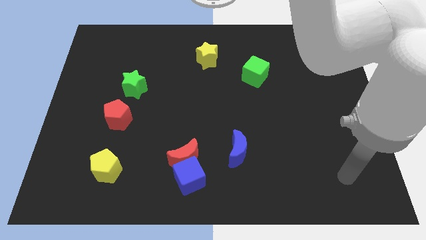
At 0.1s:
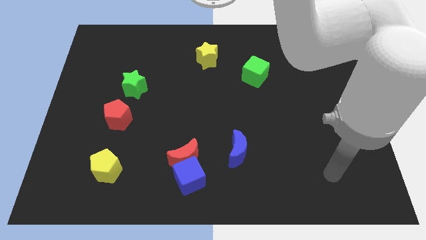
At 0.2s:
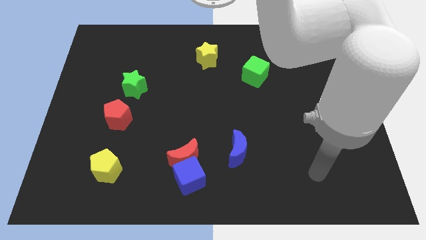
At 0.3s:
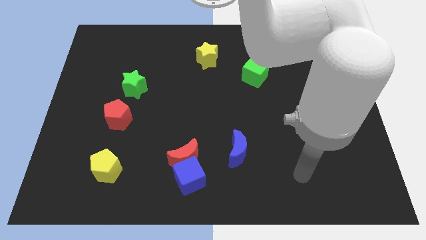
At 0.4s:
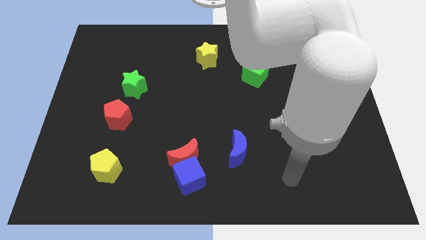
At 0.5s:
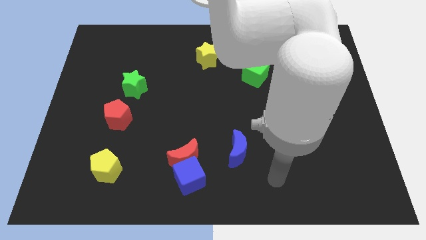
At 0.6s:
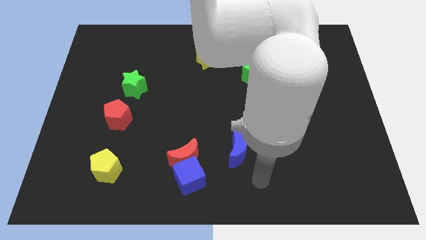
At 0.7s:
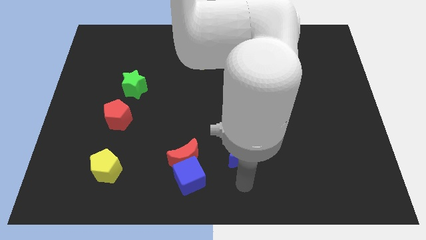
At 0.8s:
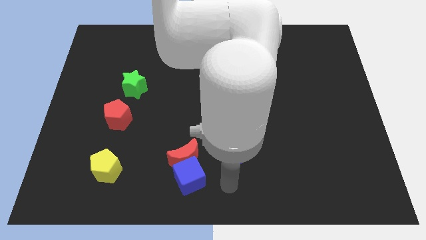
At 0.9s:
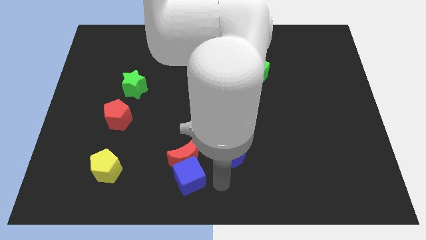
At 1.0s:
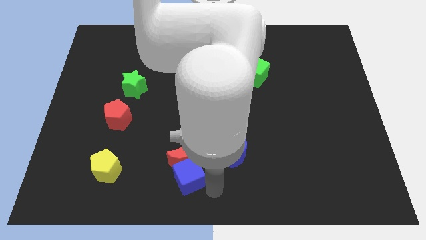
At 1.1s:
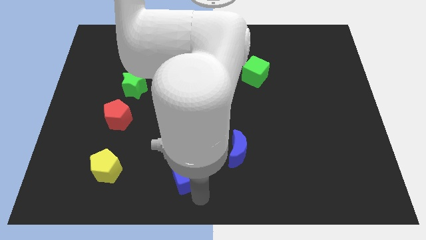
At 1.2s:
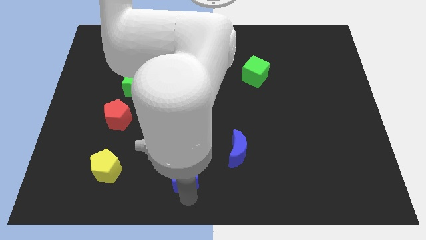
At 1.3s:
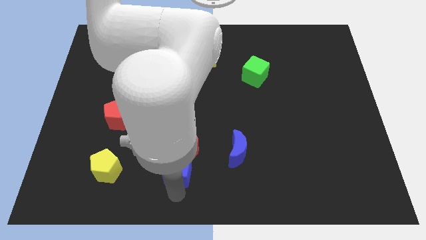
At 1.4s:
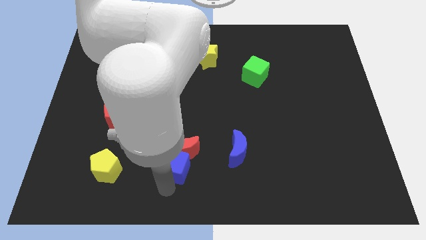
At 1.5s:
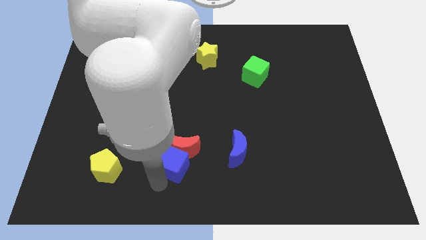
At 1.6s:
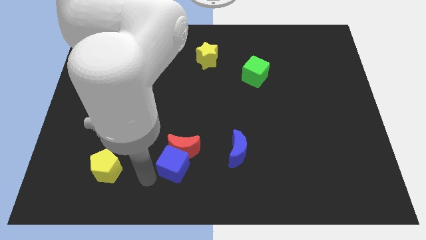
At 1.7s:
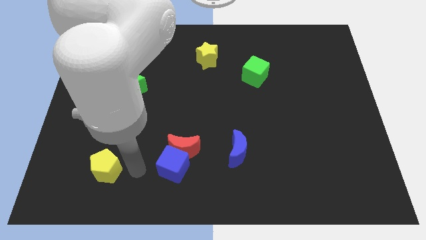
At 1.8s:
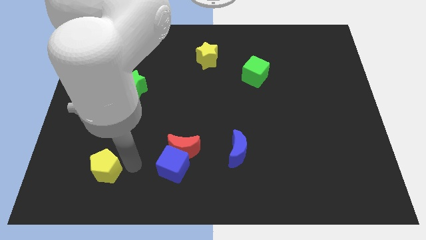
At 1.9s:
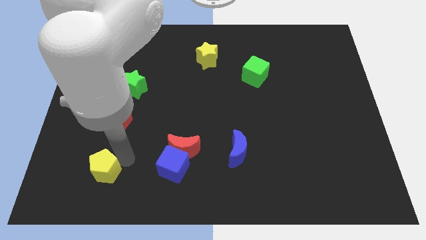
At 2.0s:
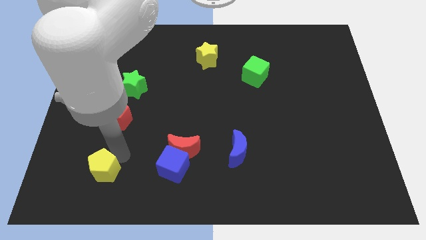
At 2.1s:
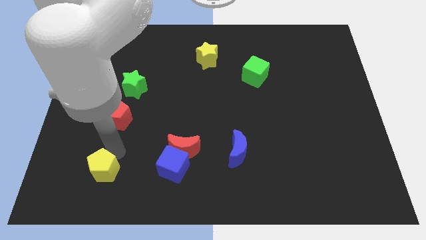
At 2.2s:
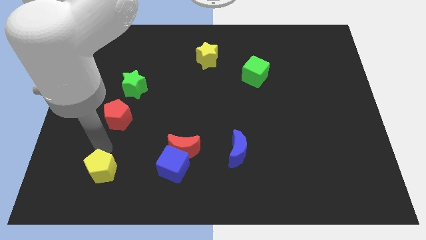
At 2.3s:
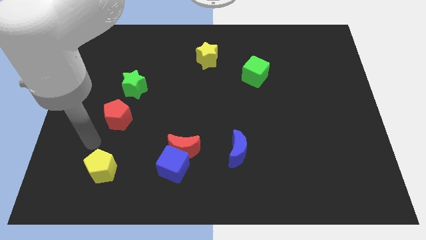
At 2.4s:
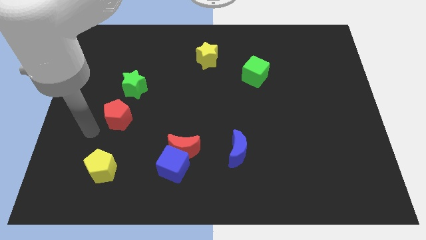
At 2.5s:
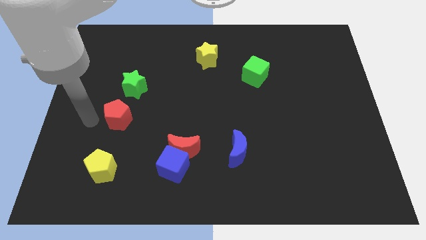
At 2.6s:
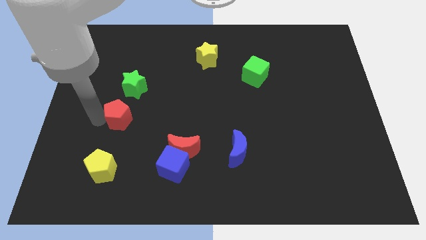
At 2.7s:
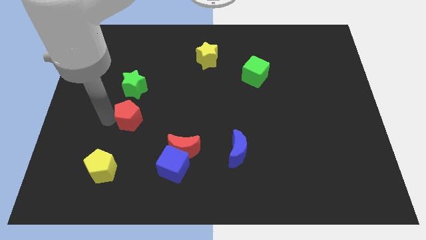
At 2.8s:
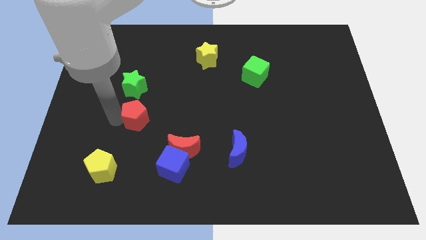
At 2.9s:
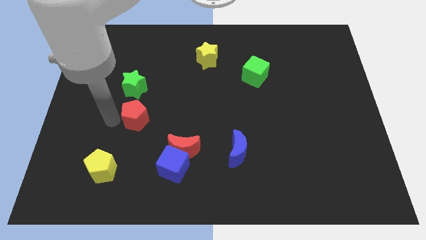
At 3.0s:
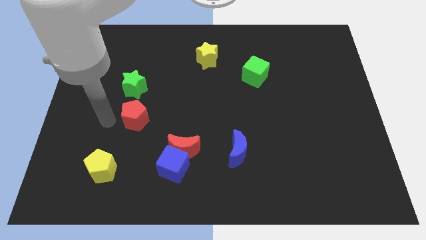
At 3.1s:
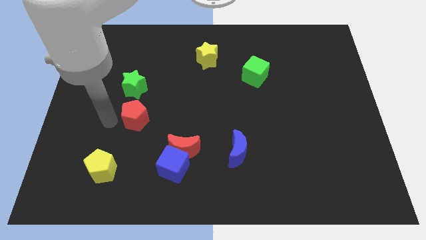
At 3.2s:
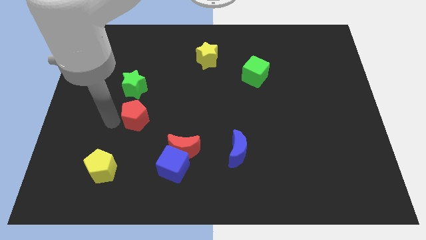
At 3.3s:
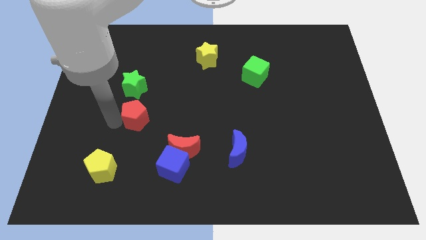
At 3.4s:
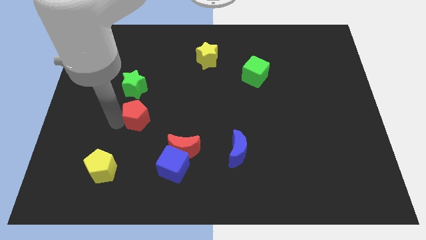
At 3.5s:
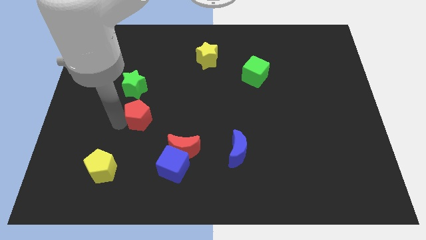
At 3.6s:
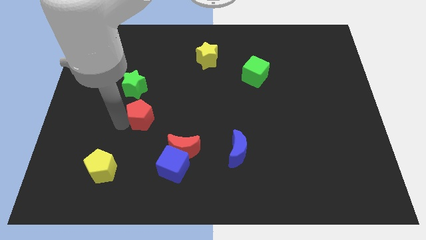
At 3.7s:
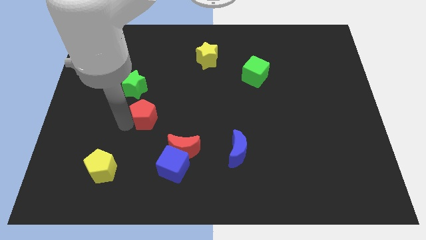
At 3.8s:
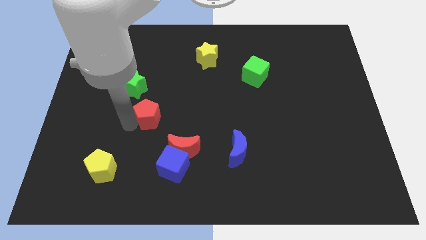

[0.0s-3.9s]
slightly move the red pentagon to the right

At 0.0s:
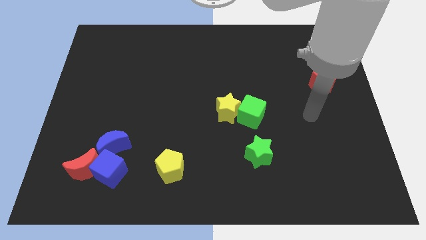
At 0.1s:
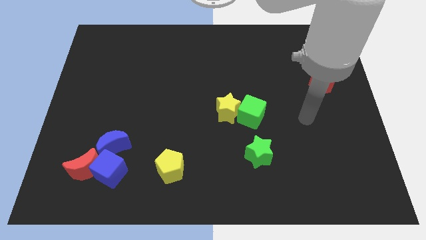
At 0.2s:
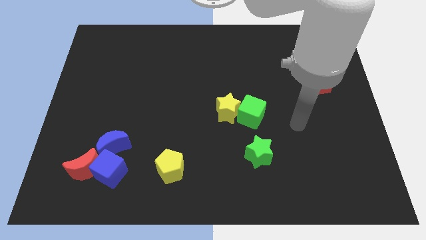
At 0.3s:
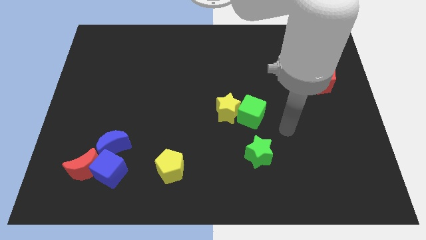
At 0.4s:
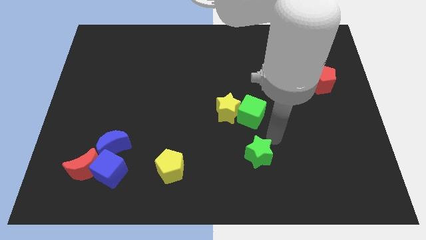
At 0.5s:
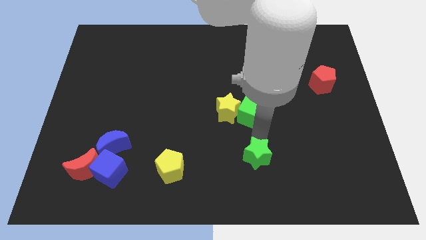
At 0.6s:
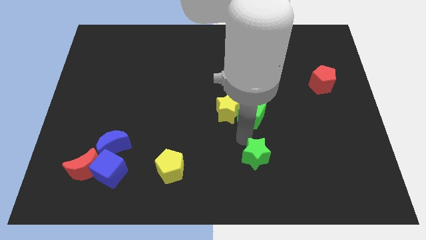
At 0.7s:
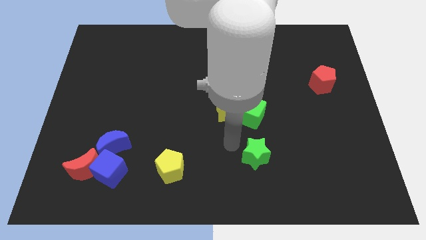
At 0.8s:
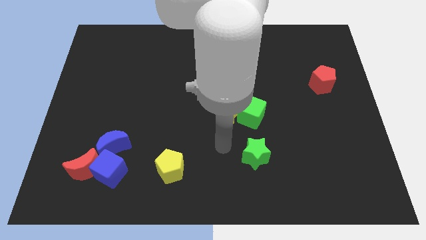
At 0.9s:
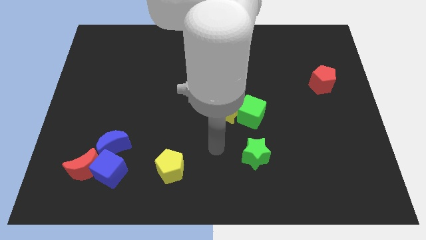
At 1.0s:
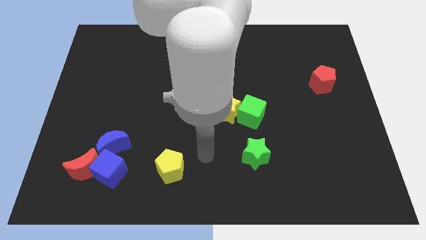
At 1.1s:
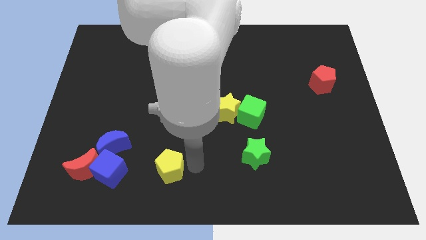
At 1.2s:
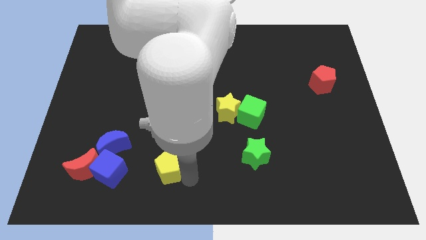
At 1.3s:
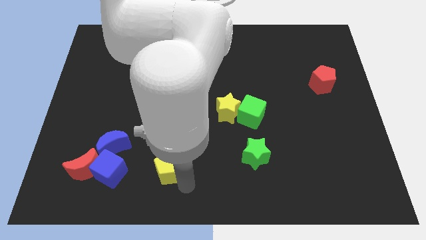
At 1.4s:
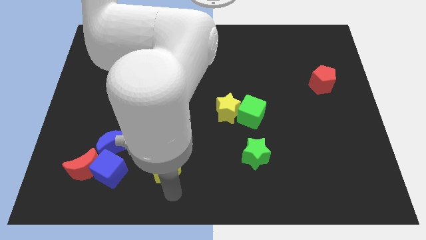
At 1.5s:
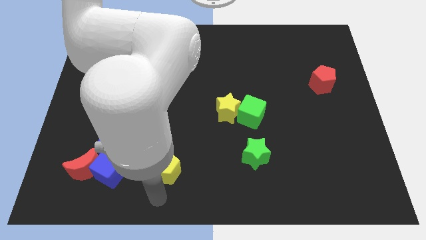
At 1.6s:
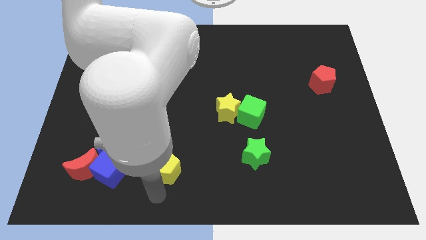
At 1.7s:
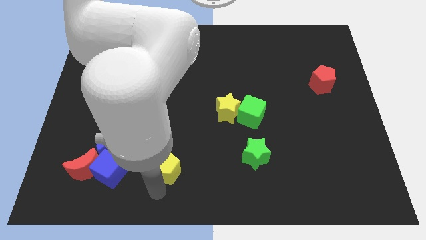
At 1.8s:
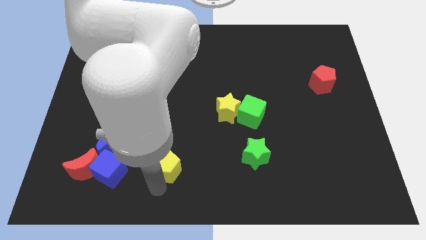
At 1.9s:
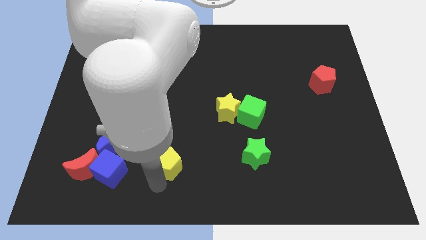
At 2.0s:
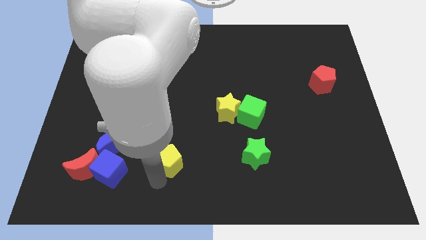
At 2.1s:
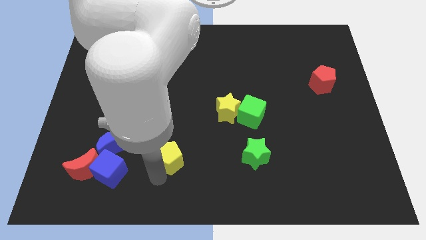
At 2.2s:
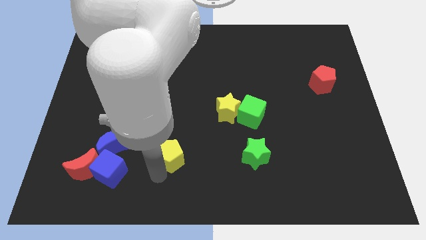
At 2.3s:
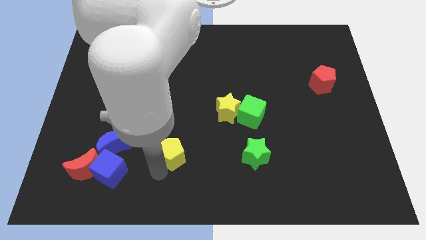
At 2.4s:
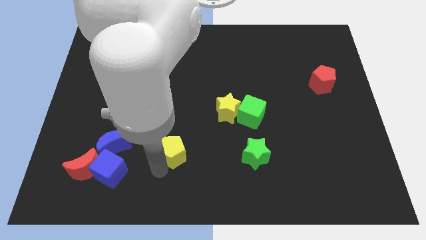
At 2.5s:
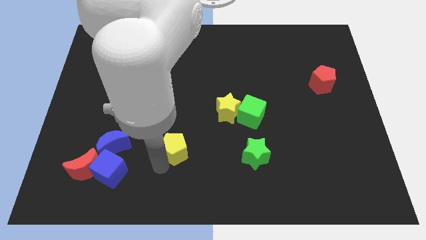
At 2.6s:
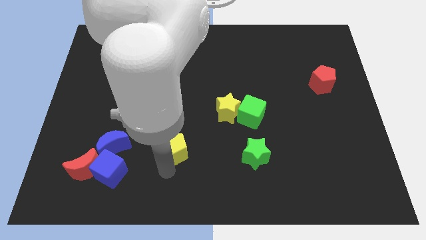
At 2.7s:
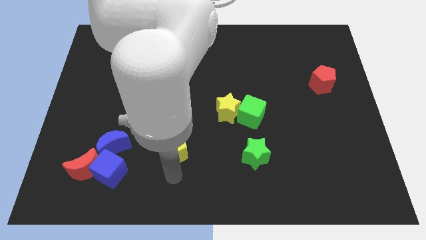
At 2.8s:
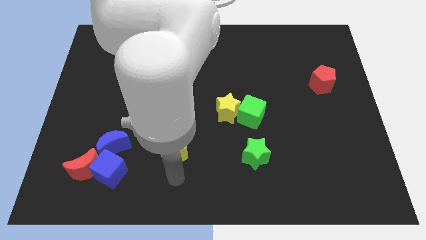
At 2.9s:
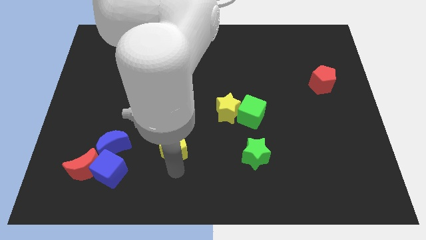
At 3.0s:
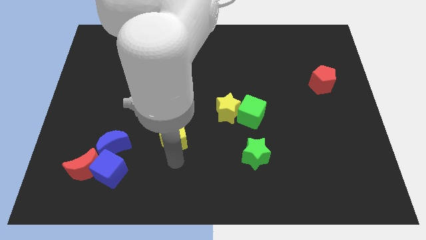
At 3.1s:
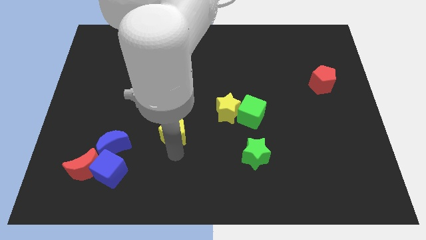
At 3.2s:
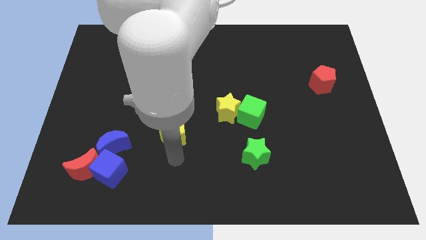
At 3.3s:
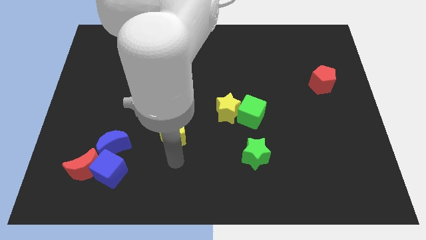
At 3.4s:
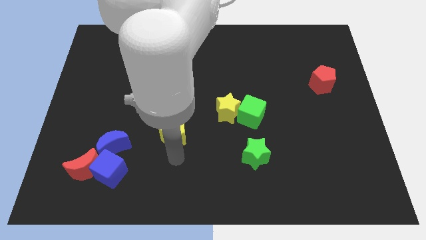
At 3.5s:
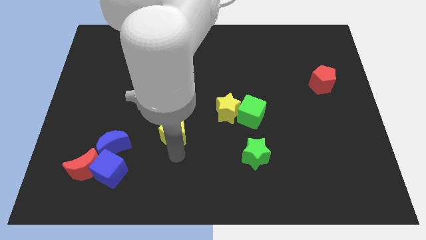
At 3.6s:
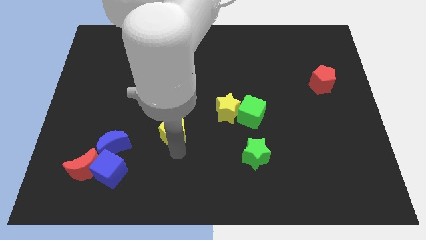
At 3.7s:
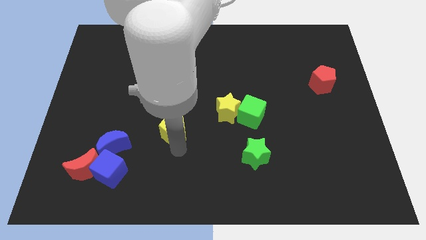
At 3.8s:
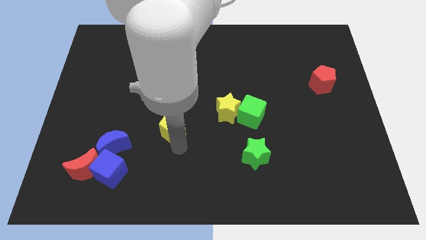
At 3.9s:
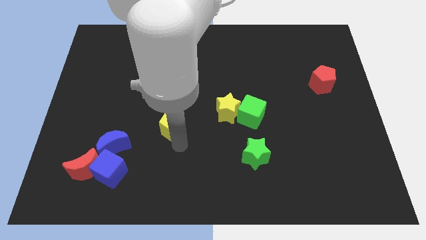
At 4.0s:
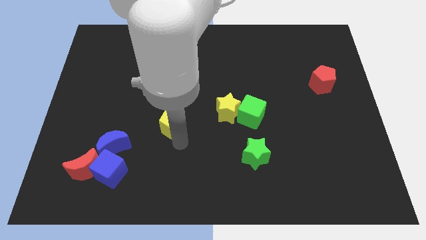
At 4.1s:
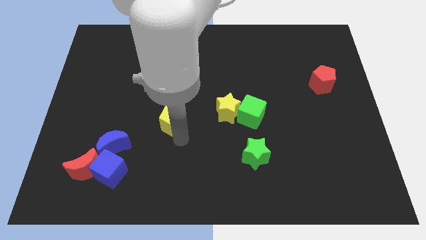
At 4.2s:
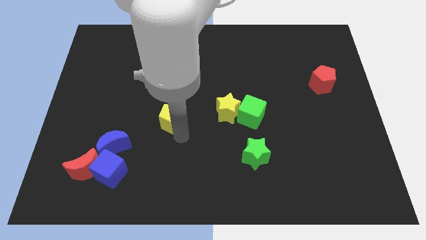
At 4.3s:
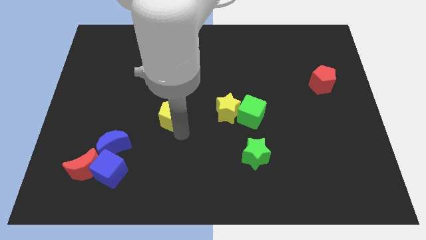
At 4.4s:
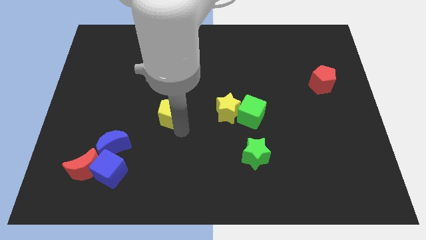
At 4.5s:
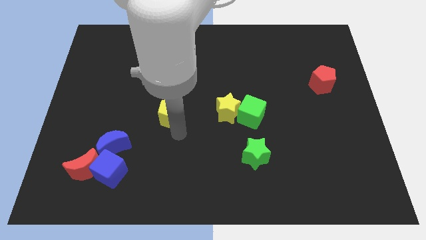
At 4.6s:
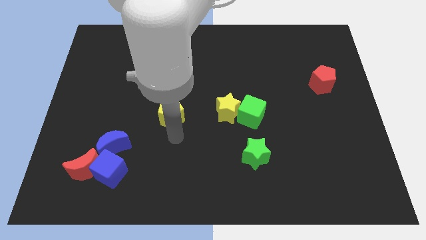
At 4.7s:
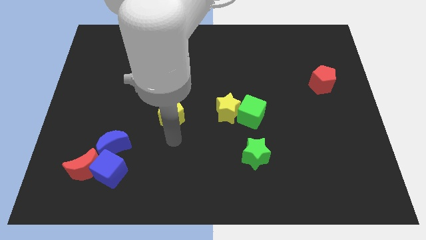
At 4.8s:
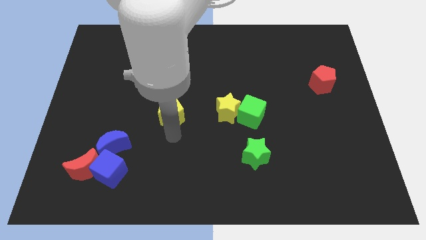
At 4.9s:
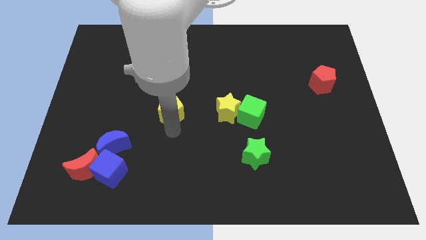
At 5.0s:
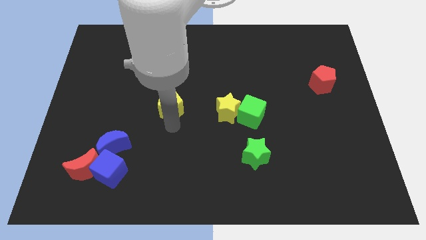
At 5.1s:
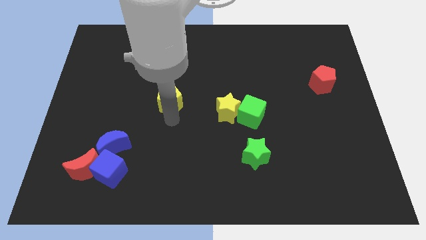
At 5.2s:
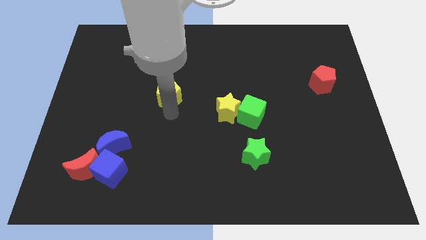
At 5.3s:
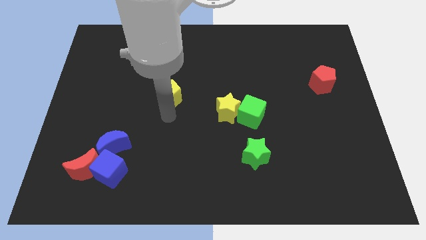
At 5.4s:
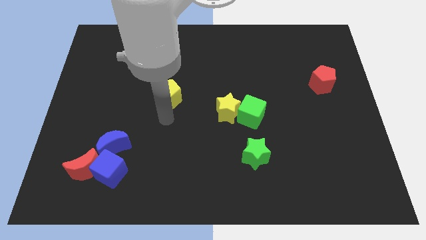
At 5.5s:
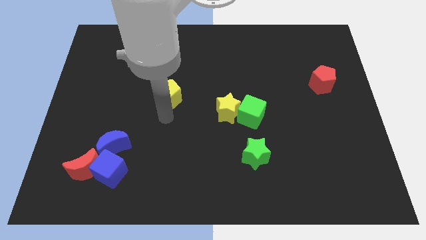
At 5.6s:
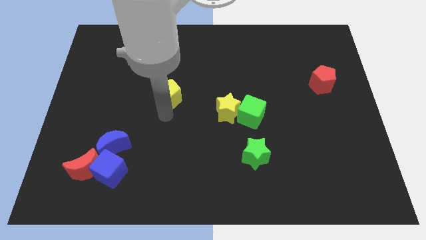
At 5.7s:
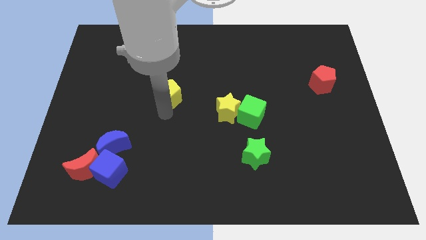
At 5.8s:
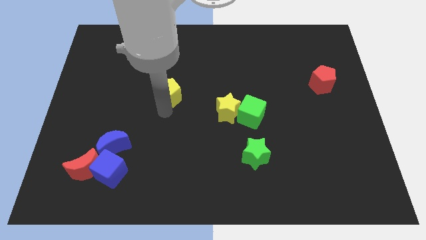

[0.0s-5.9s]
move the yellow pentagon upwards
